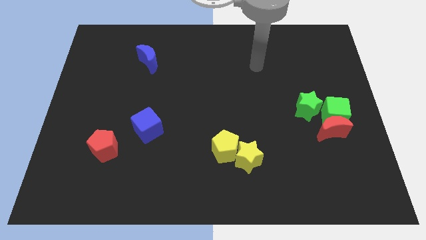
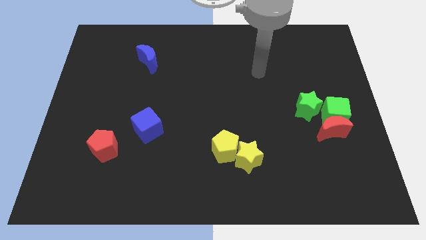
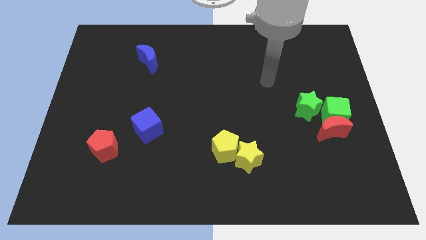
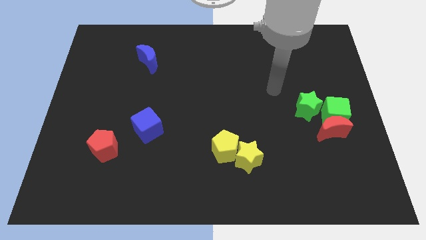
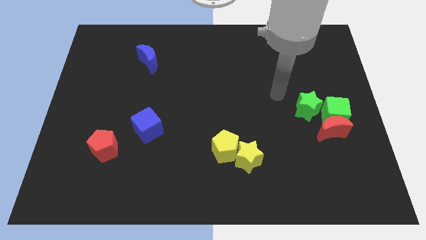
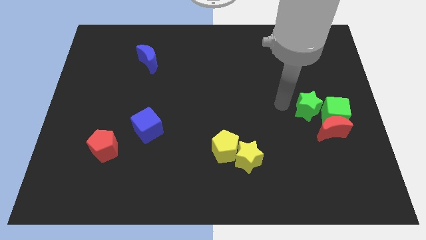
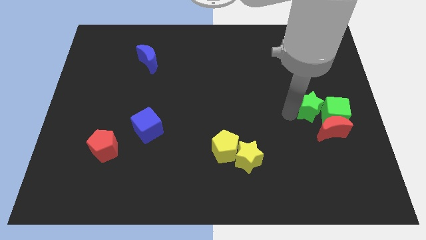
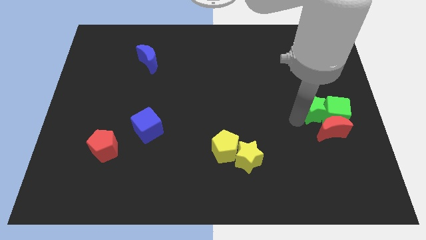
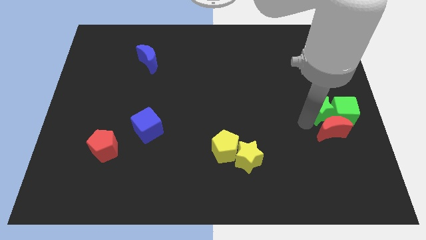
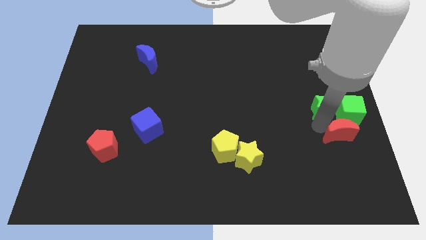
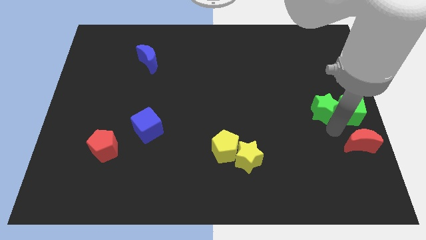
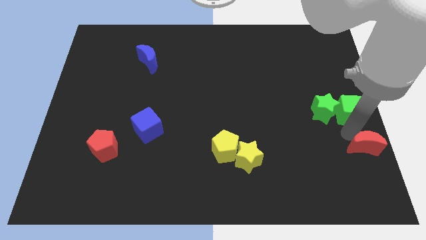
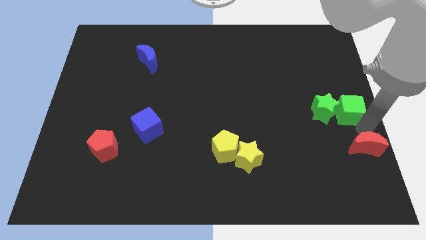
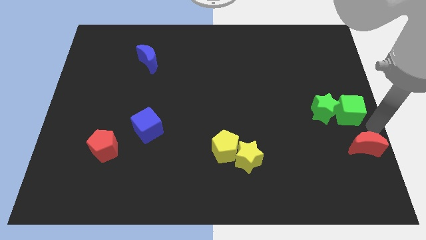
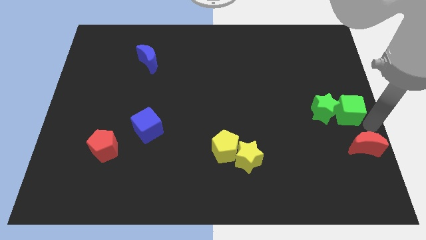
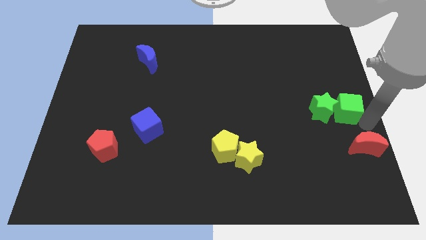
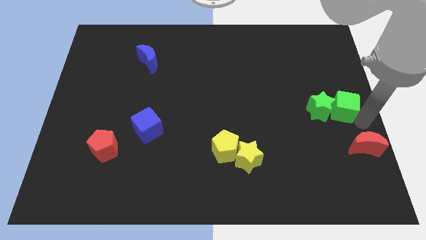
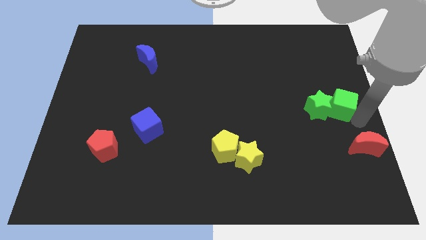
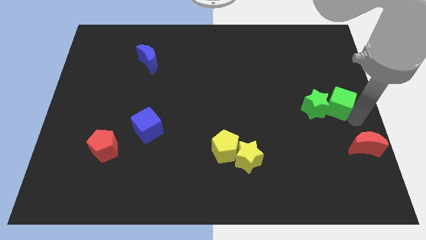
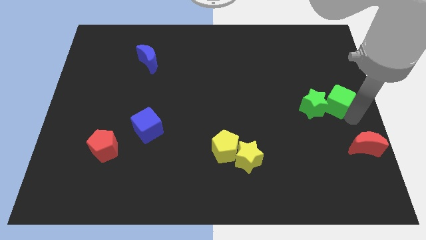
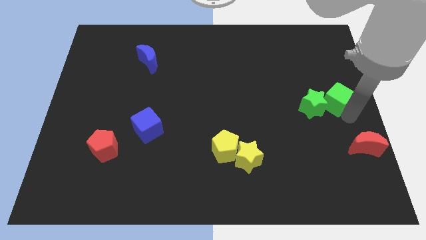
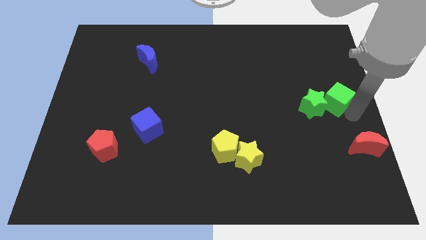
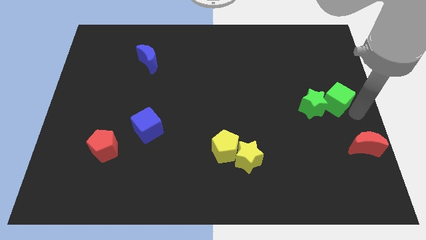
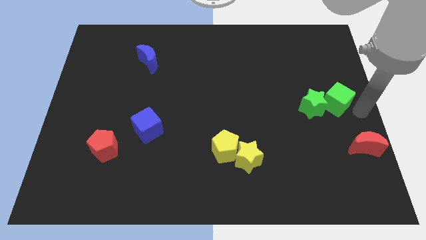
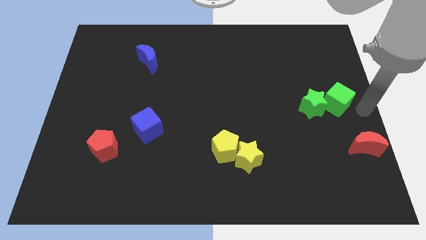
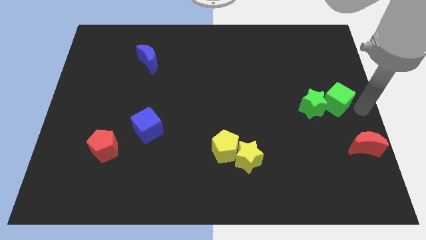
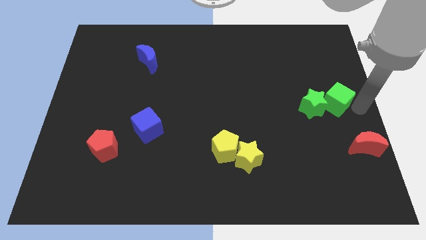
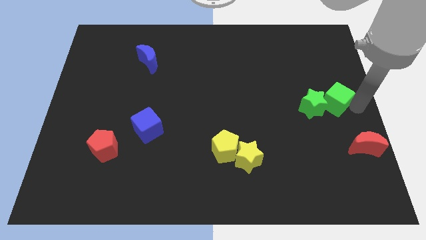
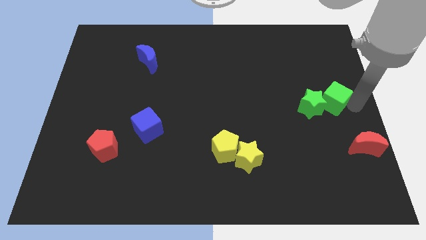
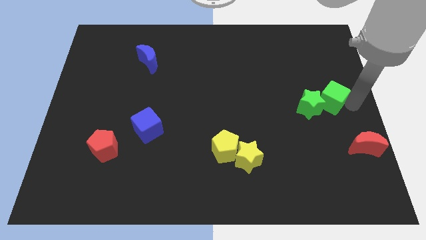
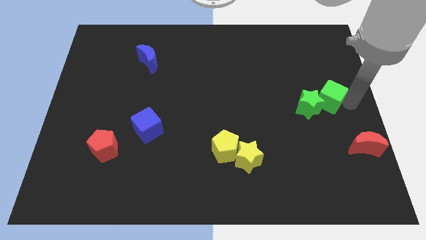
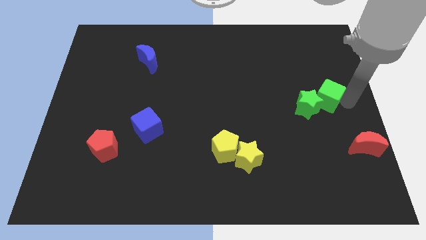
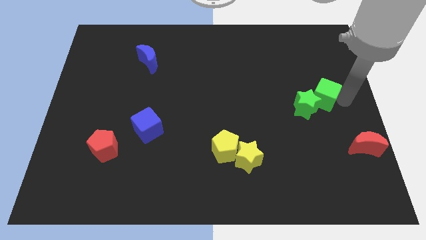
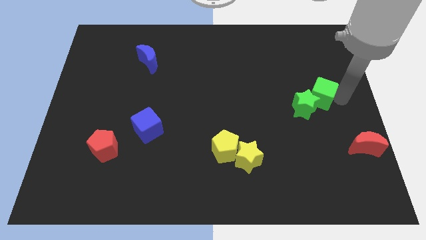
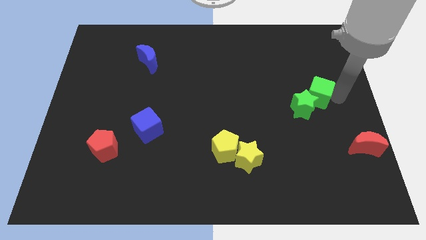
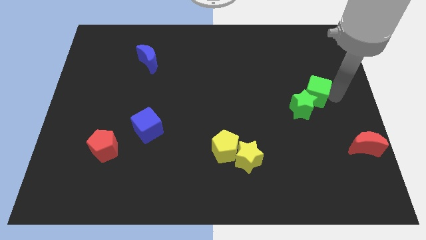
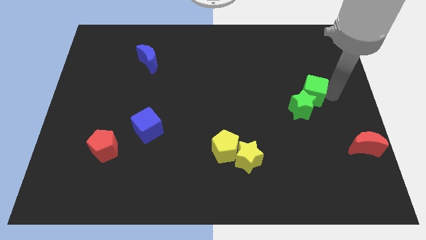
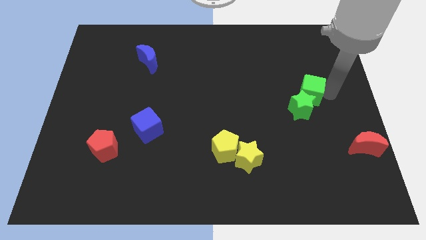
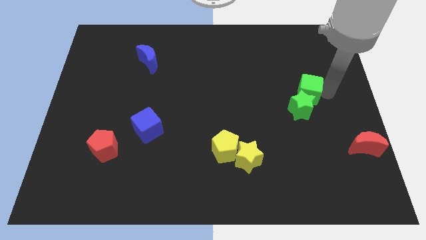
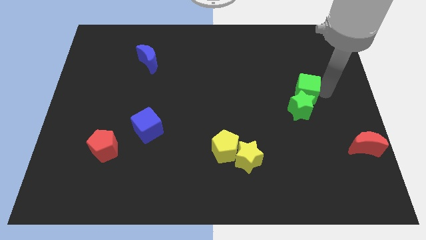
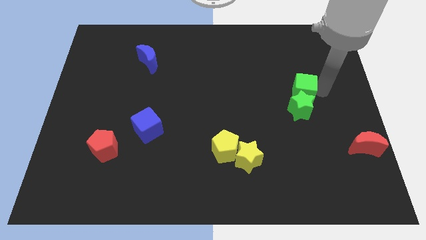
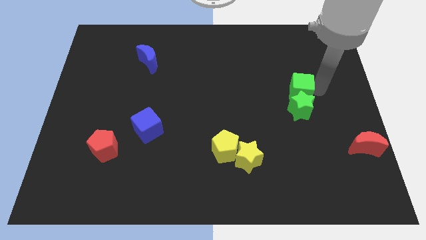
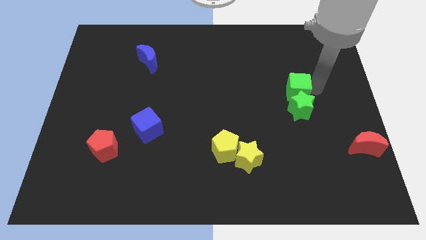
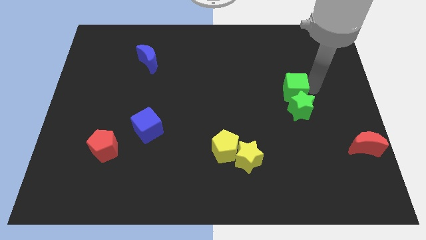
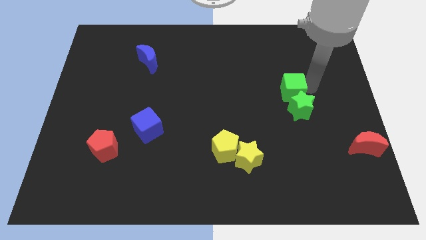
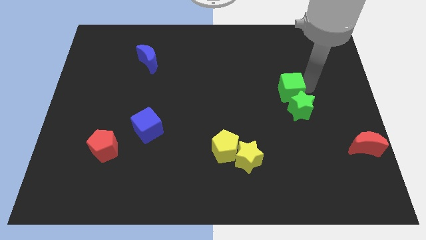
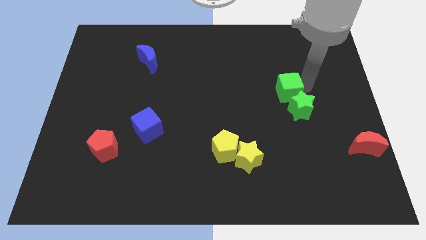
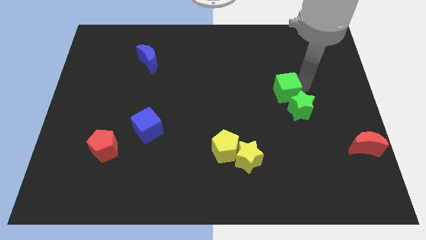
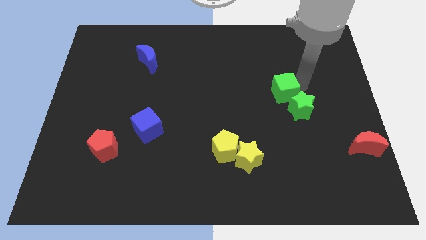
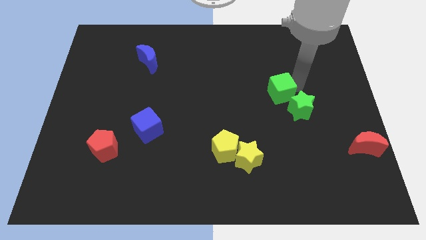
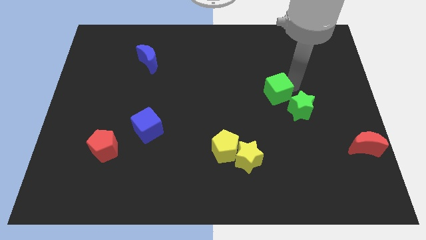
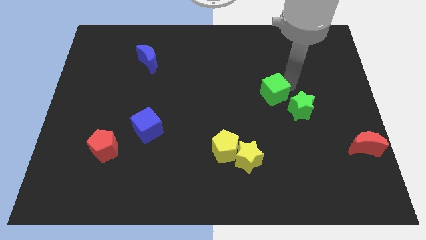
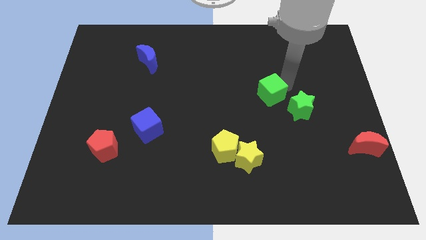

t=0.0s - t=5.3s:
move the green cube just left of the green star

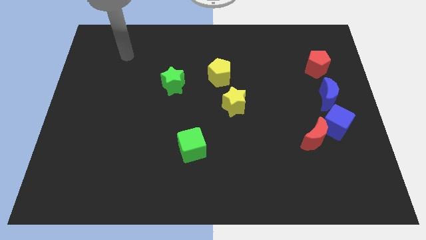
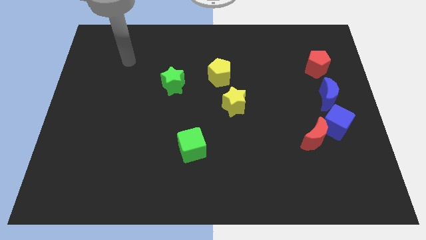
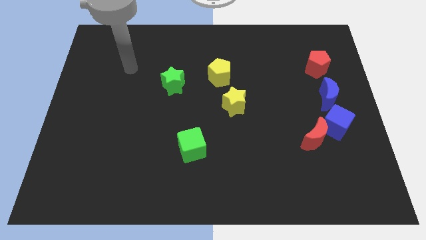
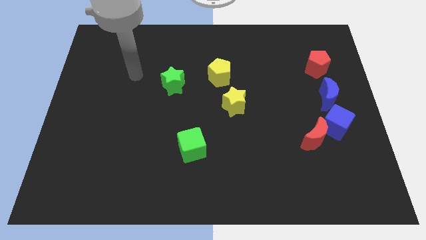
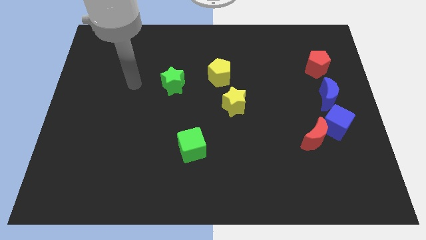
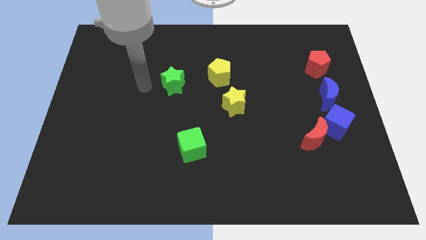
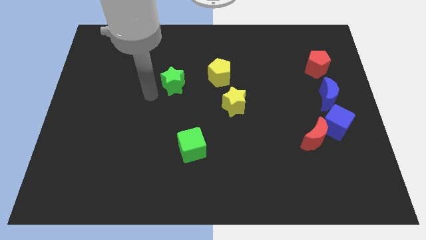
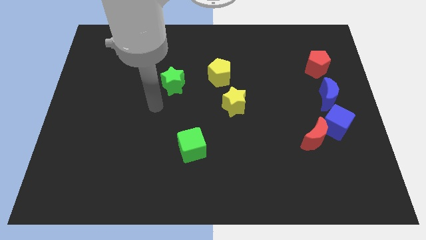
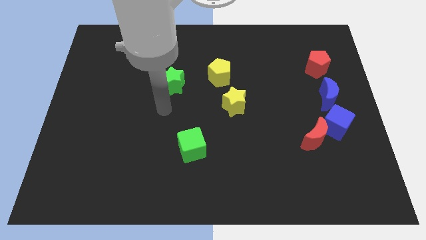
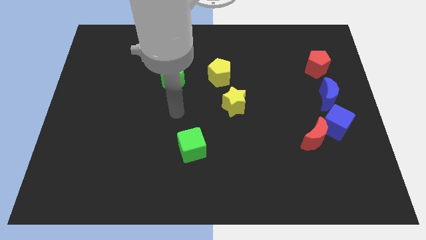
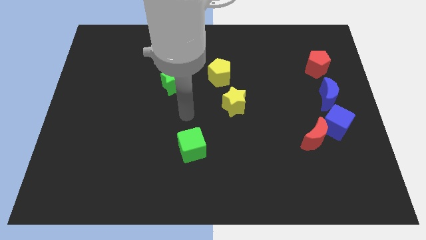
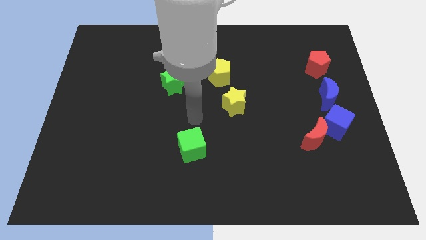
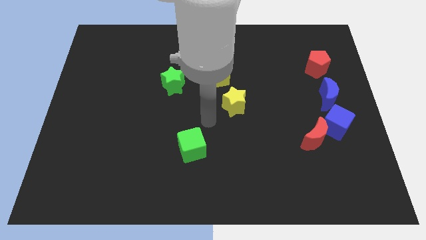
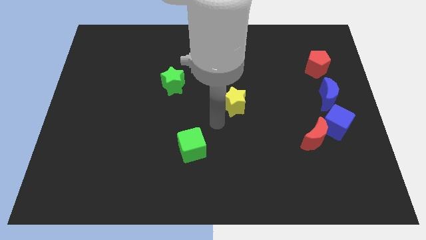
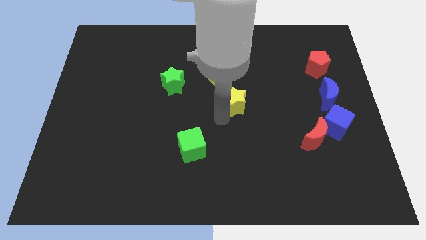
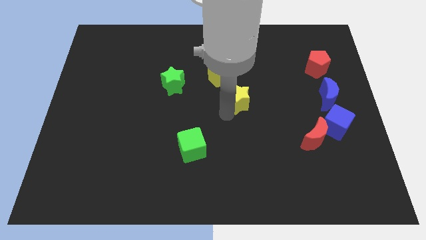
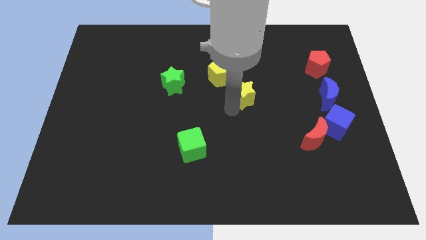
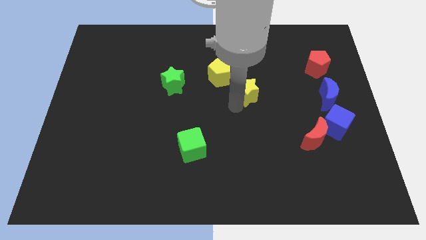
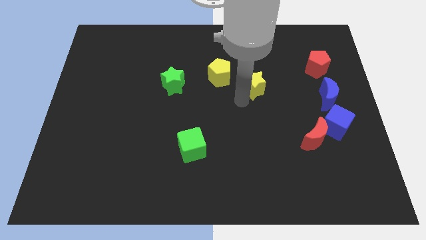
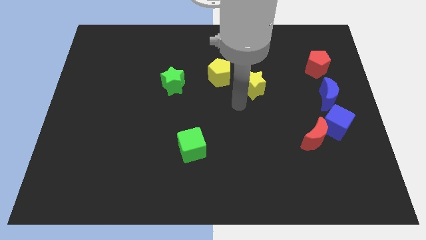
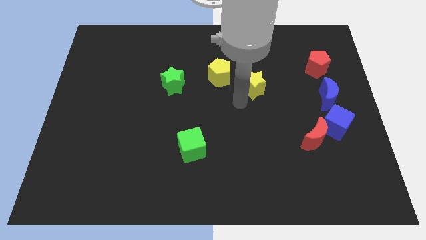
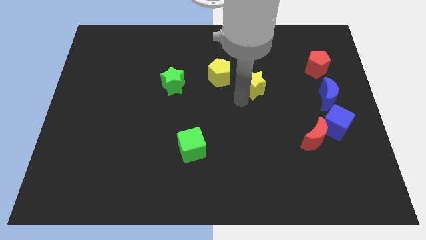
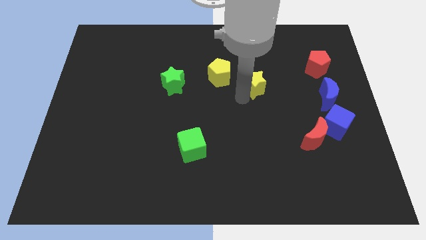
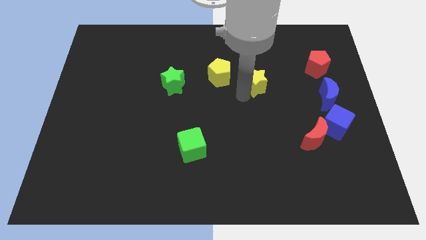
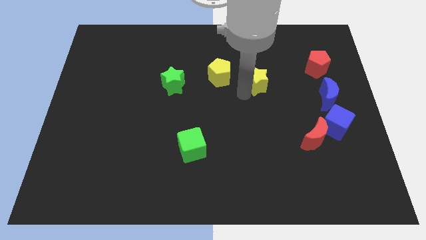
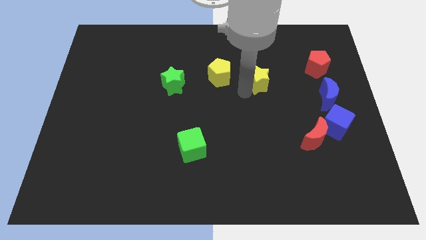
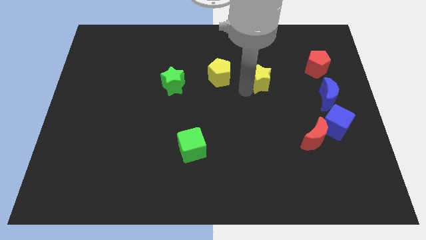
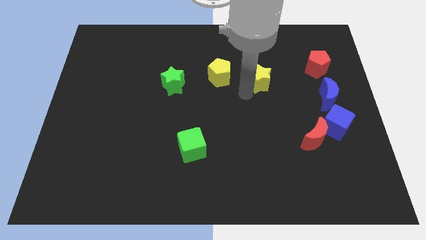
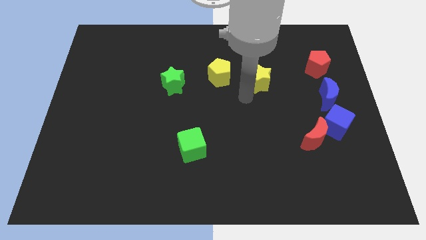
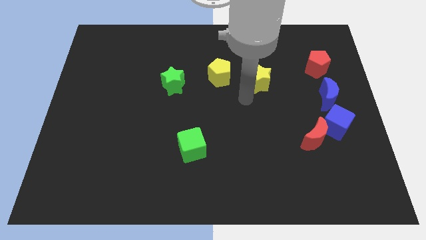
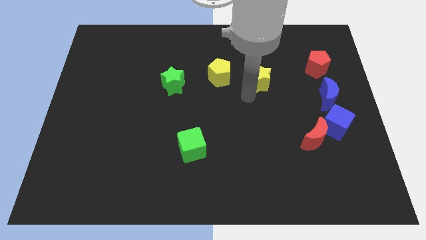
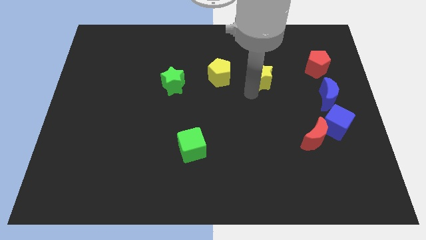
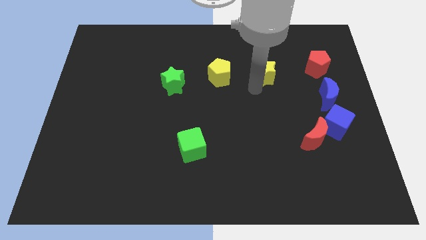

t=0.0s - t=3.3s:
push the yellow star left of the red pentagon
